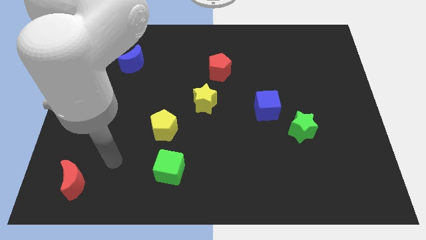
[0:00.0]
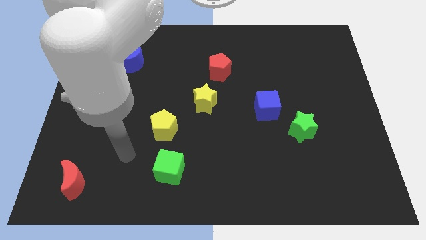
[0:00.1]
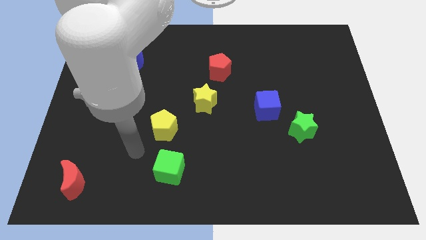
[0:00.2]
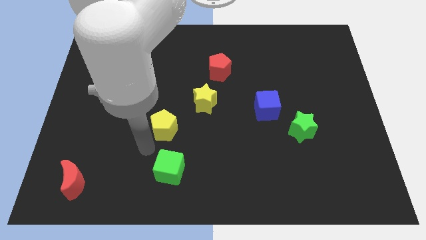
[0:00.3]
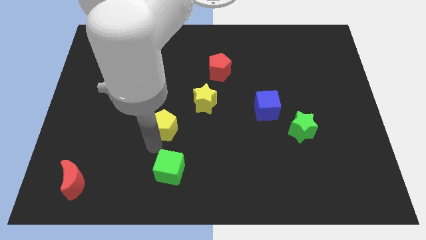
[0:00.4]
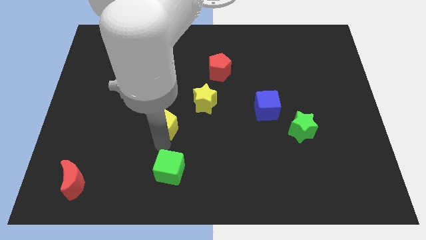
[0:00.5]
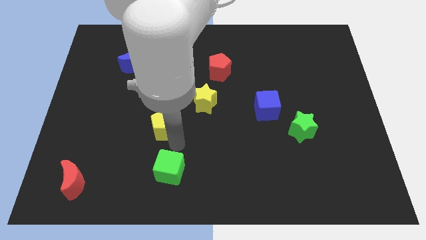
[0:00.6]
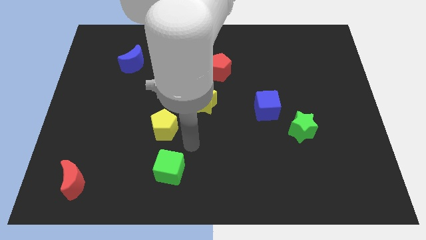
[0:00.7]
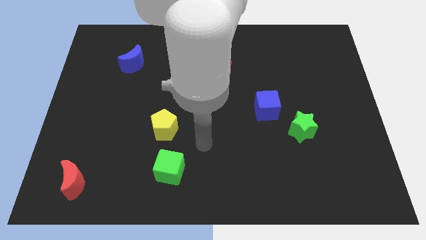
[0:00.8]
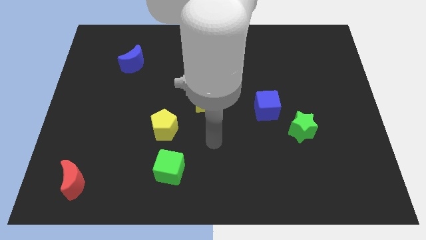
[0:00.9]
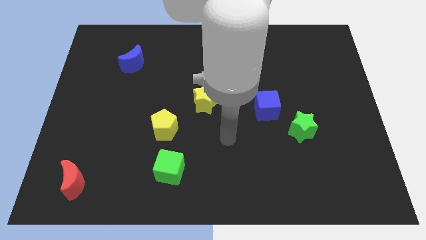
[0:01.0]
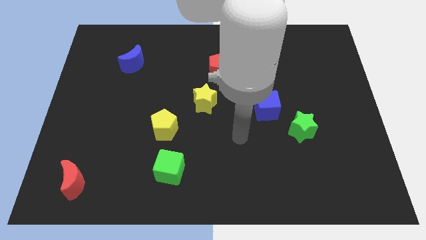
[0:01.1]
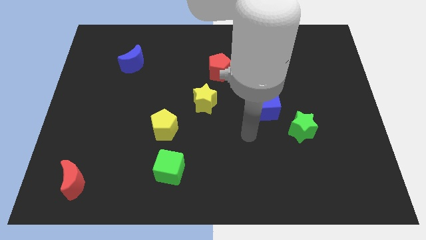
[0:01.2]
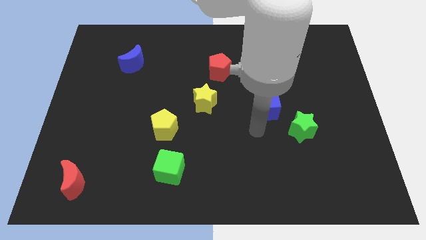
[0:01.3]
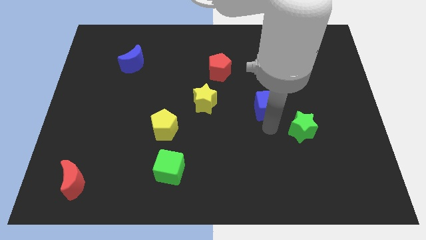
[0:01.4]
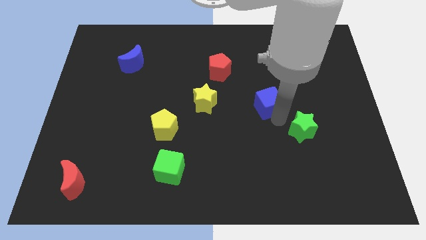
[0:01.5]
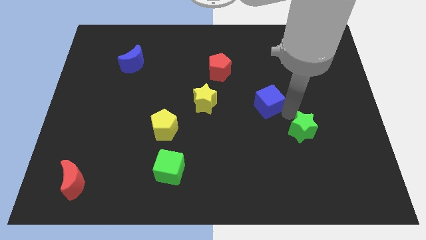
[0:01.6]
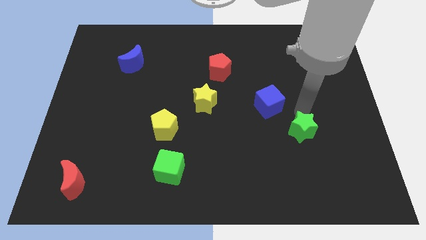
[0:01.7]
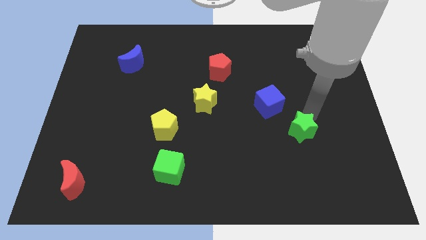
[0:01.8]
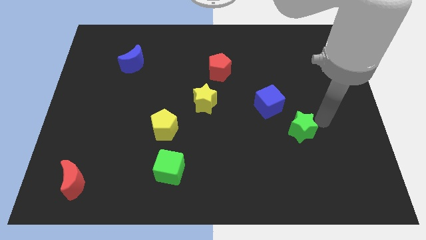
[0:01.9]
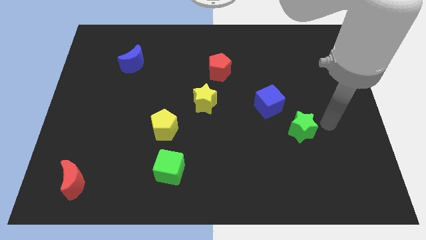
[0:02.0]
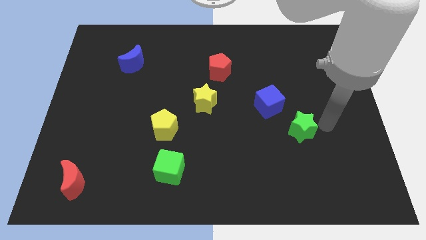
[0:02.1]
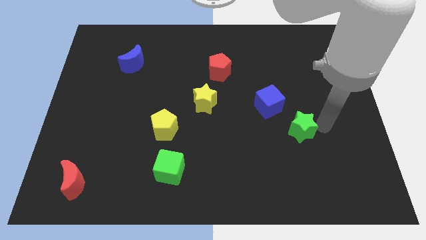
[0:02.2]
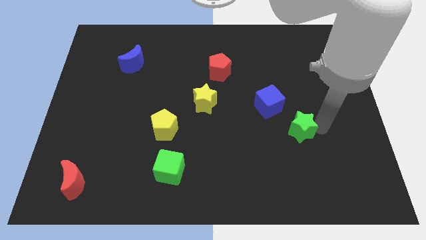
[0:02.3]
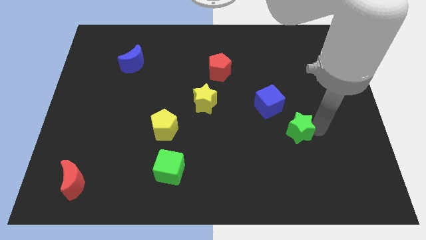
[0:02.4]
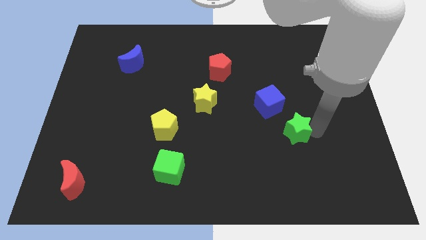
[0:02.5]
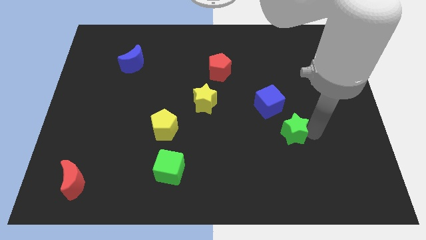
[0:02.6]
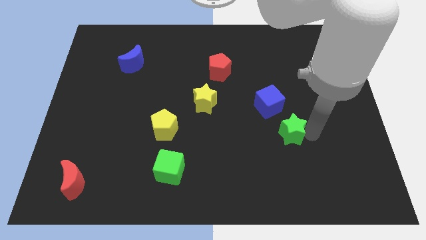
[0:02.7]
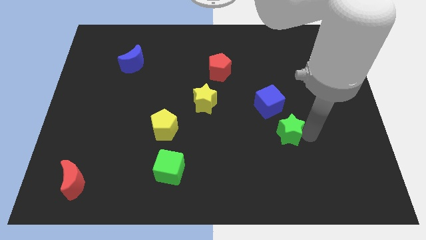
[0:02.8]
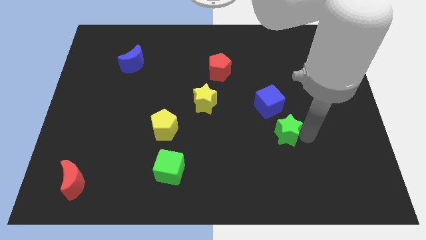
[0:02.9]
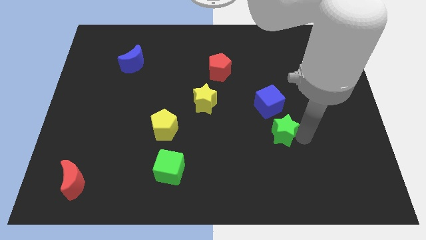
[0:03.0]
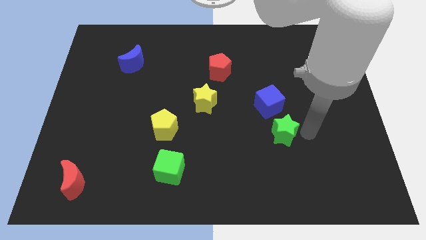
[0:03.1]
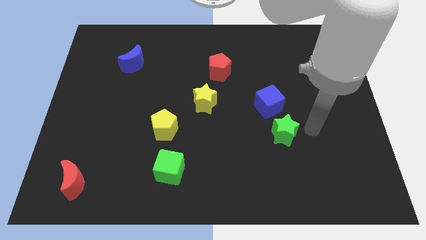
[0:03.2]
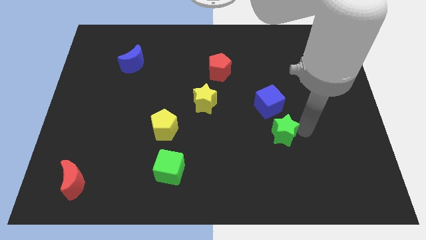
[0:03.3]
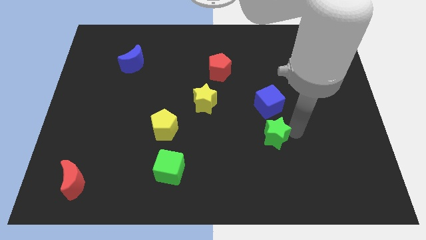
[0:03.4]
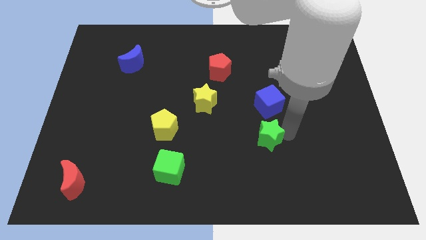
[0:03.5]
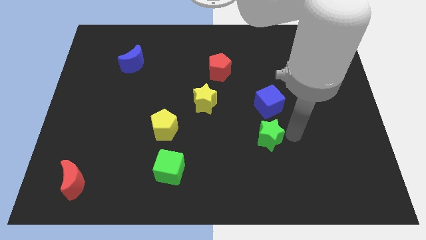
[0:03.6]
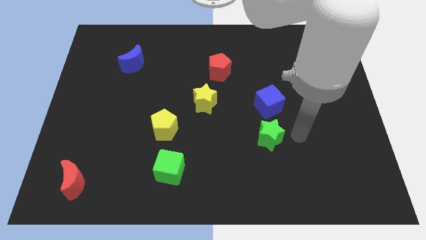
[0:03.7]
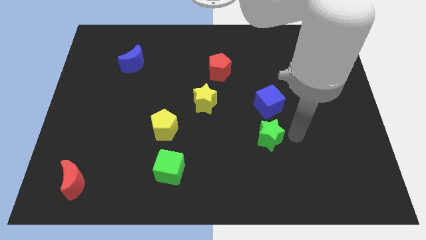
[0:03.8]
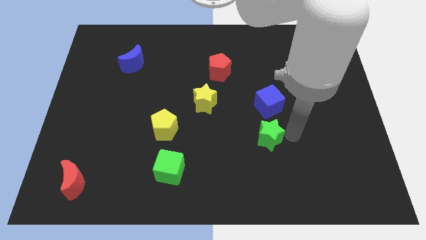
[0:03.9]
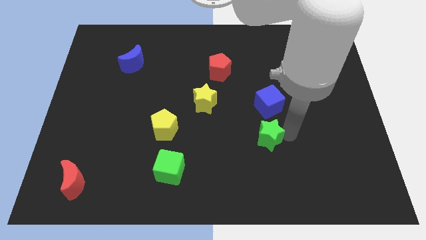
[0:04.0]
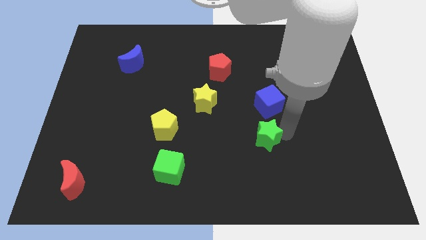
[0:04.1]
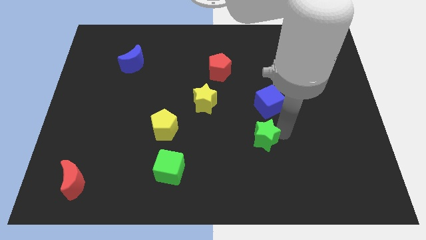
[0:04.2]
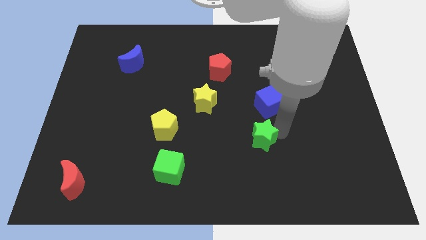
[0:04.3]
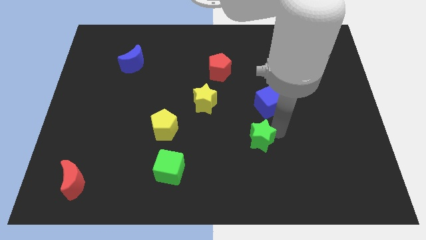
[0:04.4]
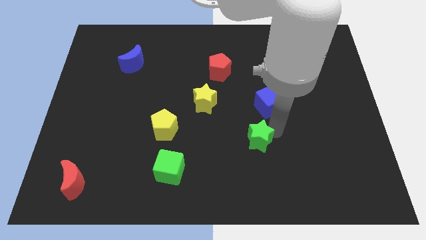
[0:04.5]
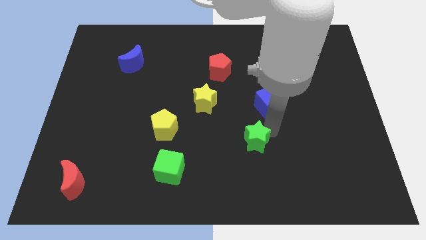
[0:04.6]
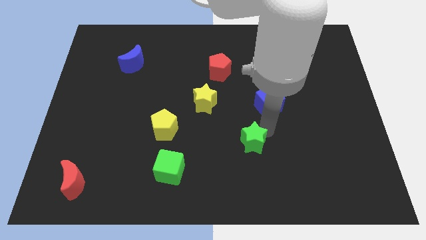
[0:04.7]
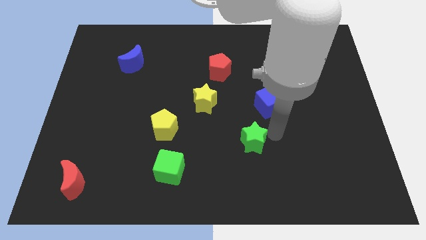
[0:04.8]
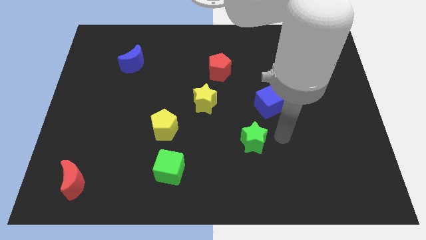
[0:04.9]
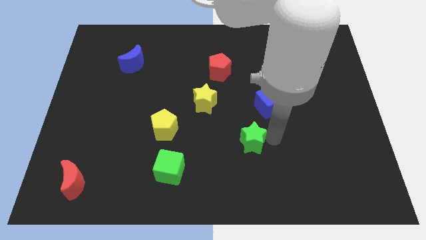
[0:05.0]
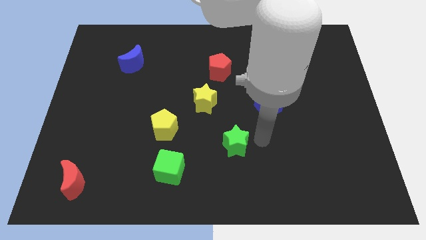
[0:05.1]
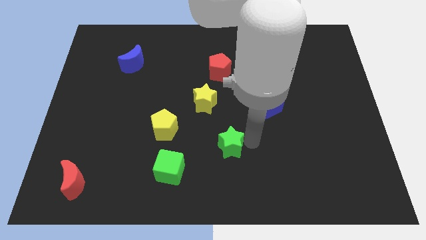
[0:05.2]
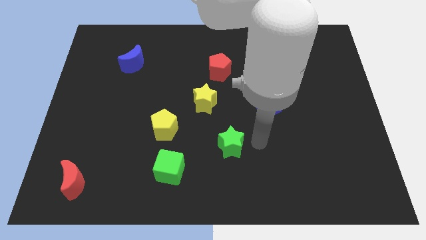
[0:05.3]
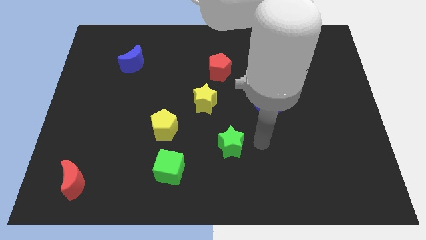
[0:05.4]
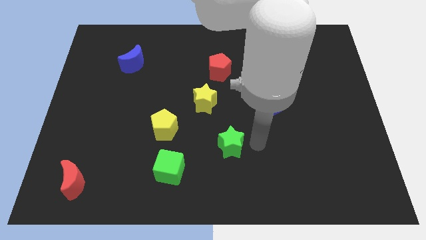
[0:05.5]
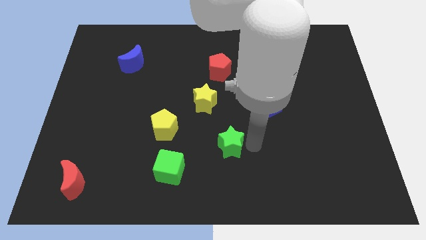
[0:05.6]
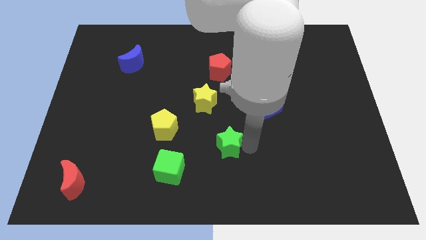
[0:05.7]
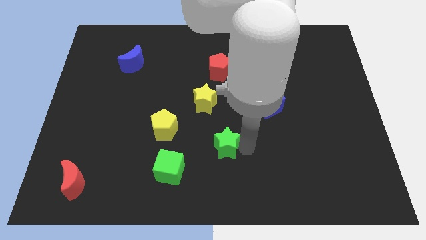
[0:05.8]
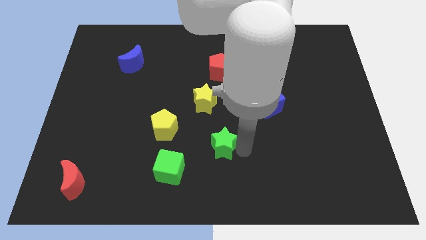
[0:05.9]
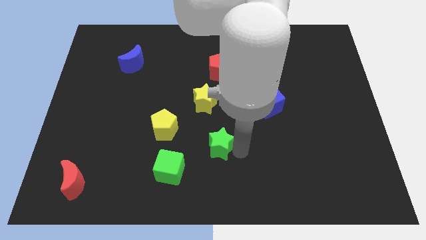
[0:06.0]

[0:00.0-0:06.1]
put the green star diagonally up and to the right of the green cube

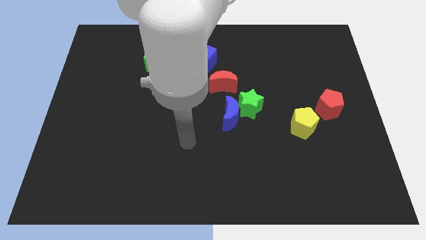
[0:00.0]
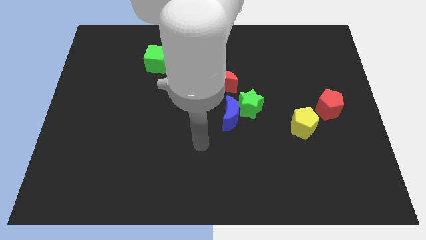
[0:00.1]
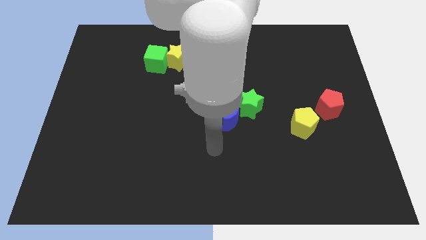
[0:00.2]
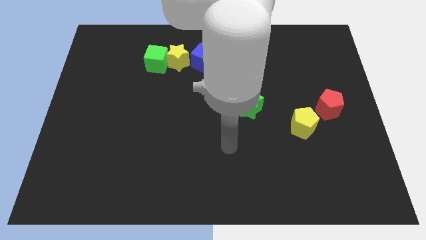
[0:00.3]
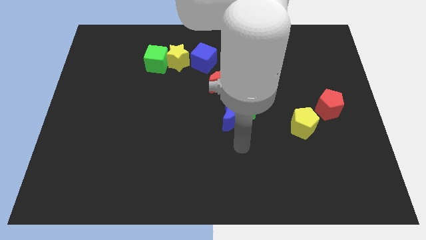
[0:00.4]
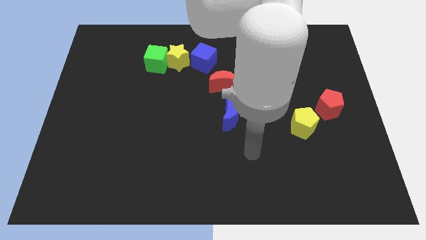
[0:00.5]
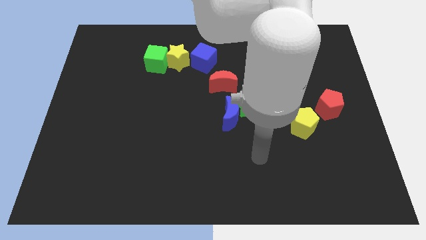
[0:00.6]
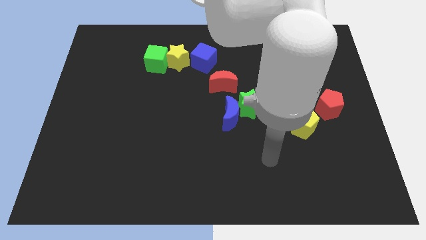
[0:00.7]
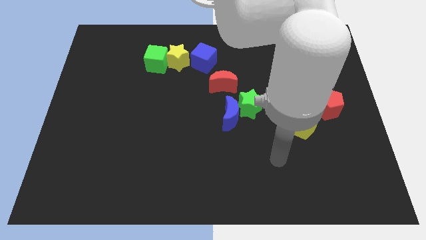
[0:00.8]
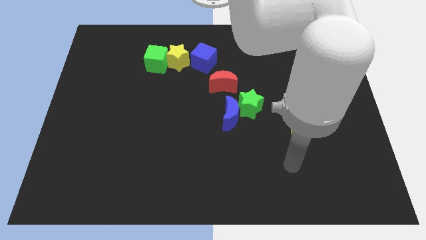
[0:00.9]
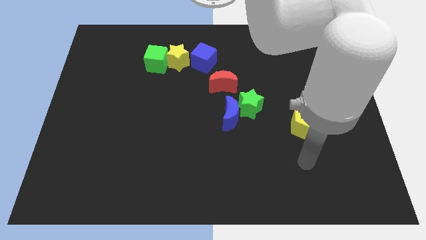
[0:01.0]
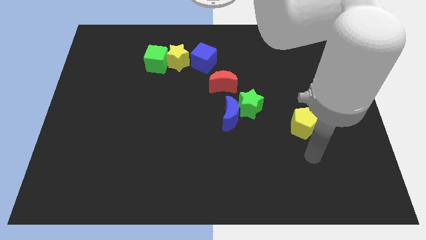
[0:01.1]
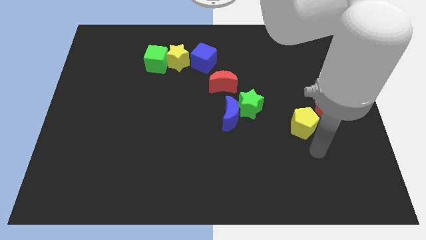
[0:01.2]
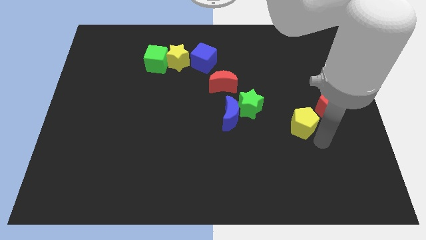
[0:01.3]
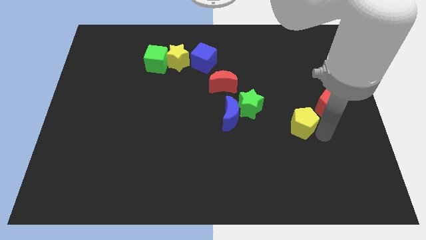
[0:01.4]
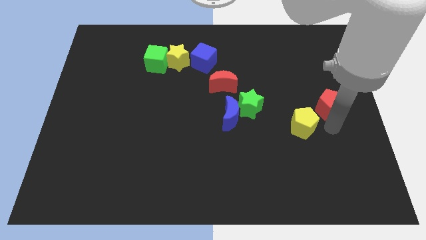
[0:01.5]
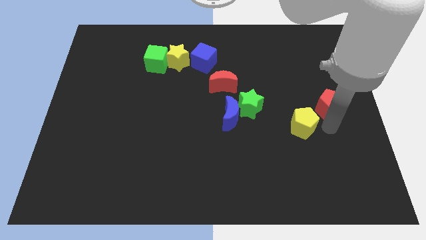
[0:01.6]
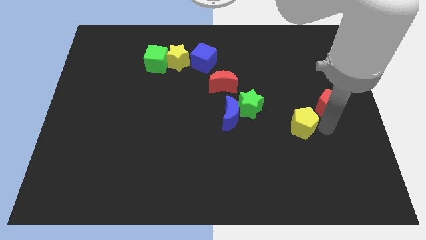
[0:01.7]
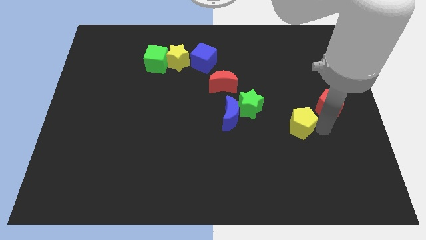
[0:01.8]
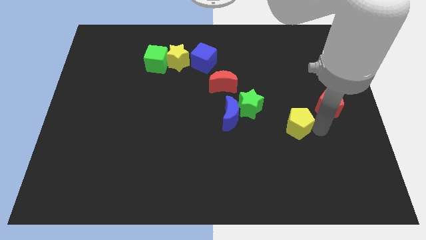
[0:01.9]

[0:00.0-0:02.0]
push the yellow pentagon to the bottom right side of the green star
